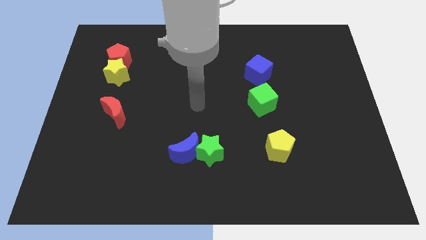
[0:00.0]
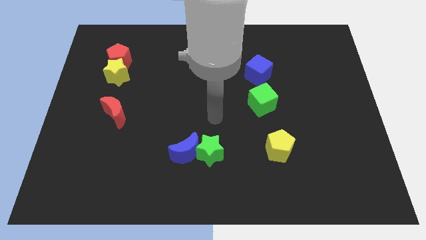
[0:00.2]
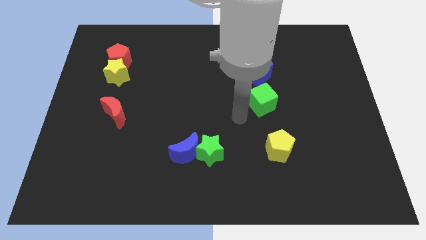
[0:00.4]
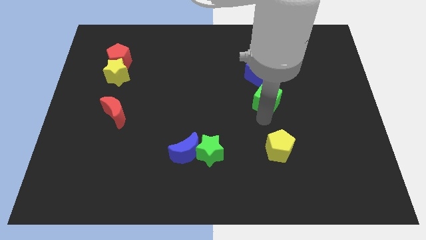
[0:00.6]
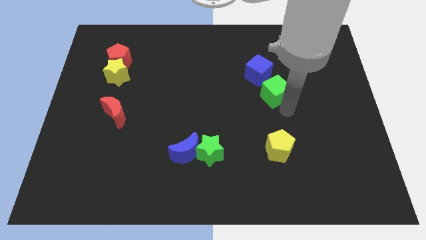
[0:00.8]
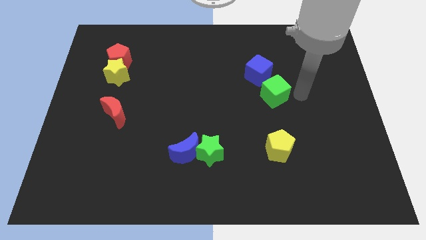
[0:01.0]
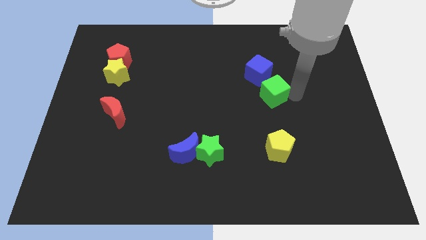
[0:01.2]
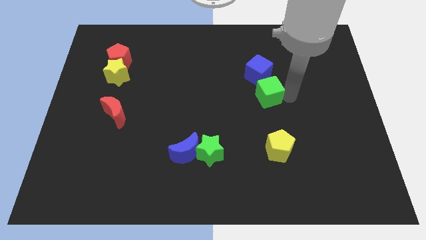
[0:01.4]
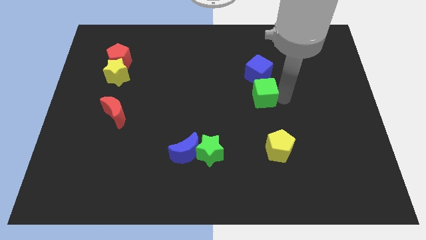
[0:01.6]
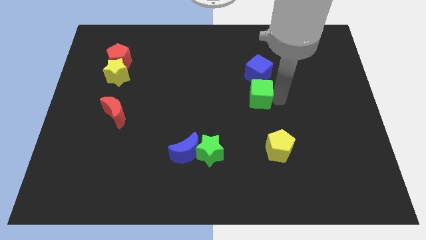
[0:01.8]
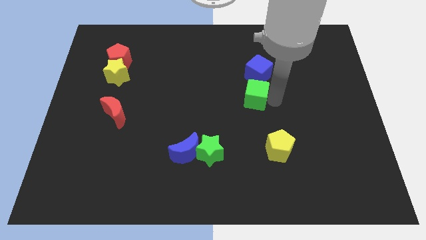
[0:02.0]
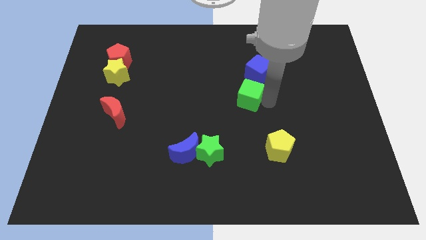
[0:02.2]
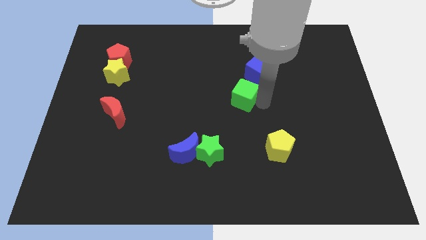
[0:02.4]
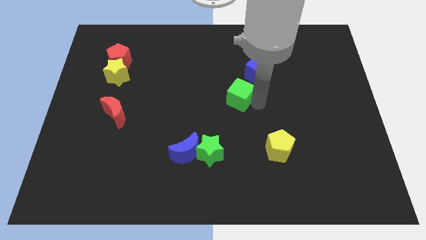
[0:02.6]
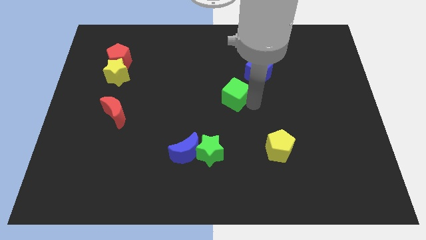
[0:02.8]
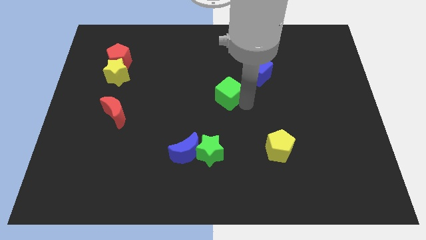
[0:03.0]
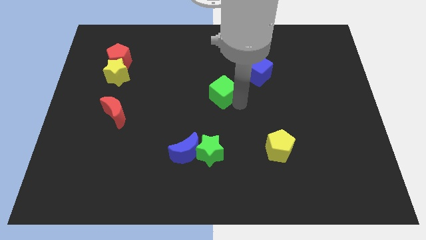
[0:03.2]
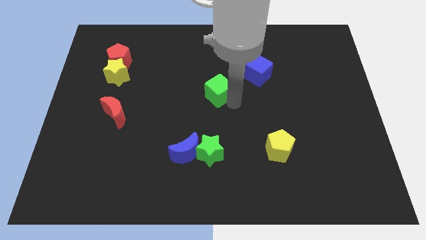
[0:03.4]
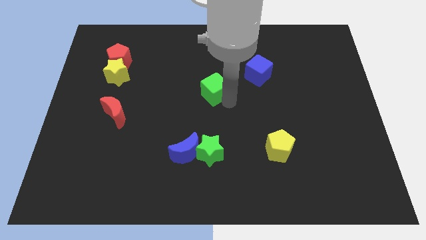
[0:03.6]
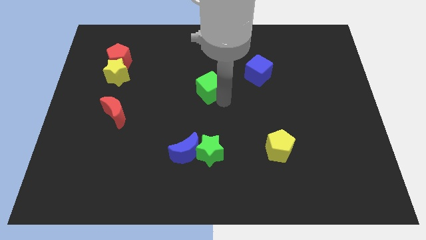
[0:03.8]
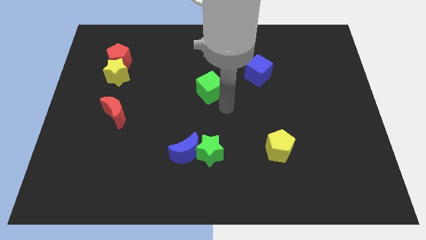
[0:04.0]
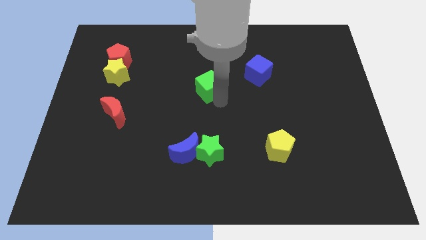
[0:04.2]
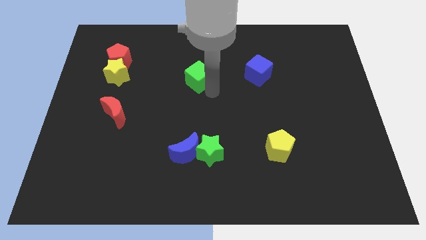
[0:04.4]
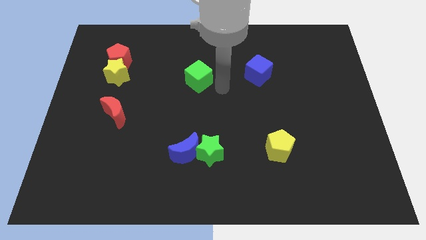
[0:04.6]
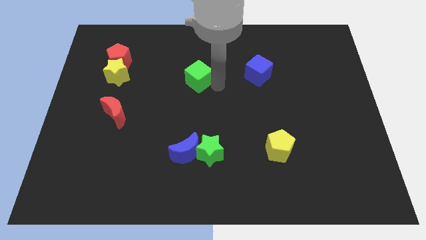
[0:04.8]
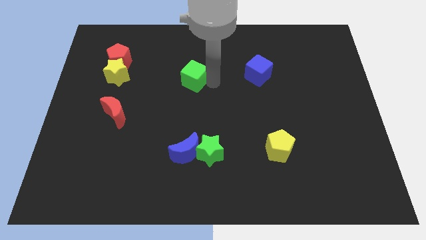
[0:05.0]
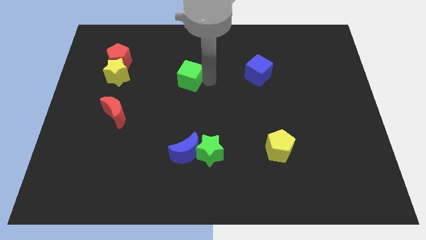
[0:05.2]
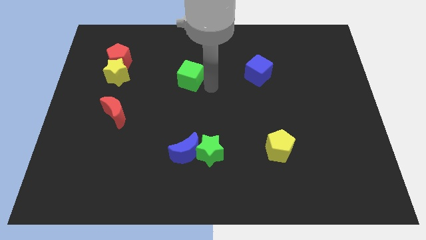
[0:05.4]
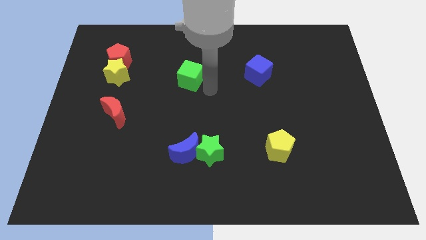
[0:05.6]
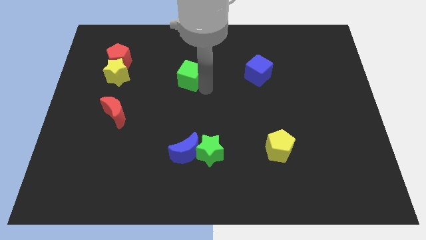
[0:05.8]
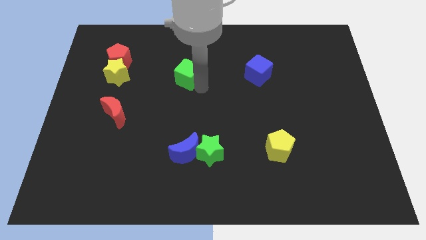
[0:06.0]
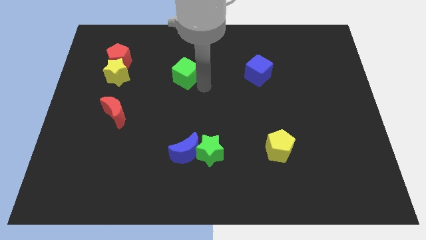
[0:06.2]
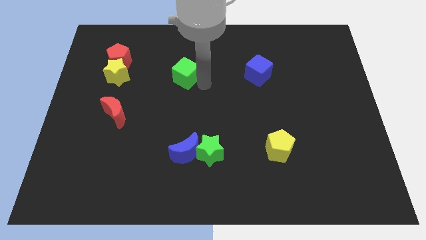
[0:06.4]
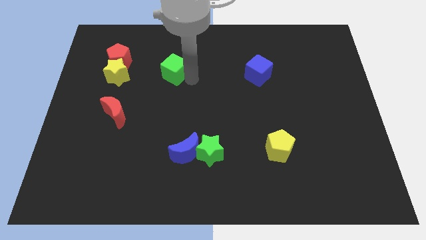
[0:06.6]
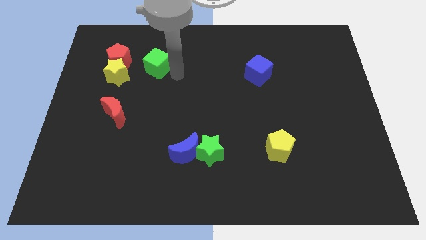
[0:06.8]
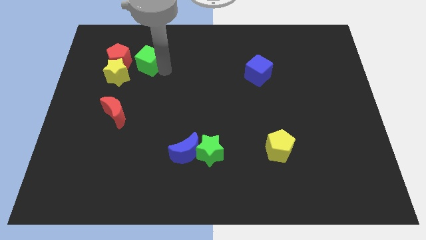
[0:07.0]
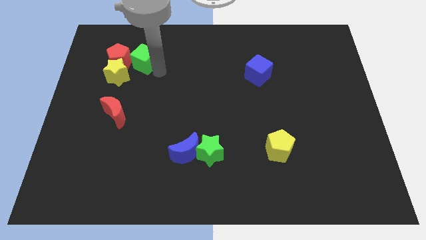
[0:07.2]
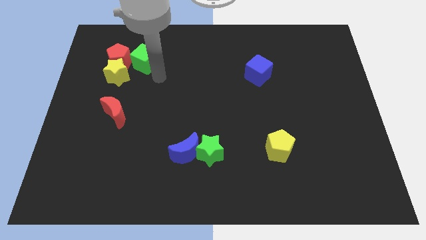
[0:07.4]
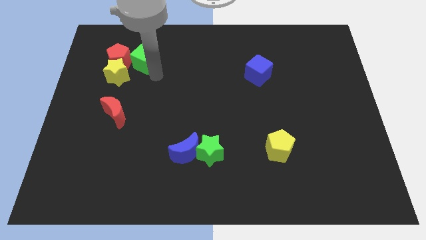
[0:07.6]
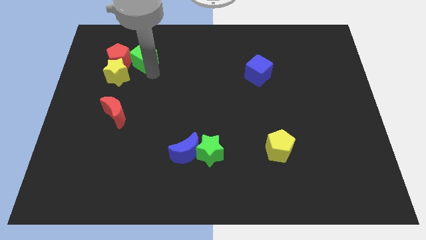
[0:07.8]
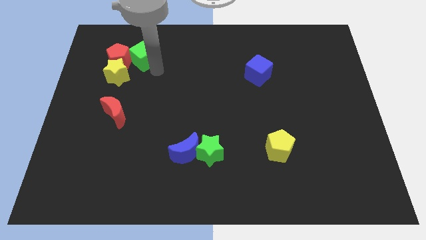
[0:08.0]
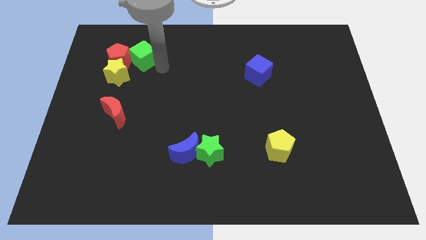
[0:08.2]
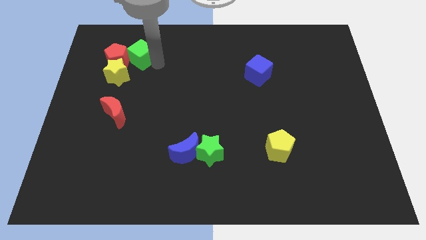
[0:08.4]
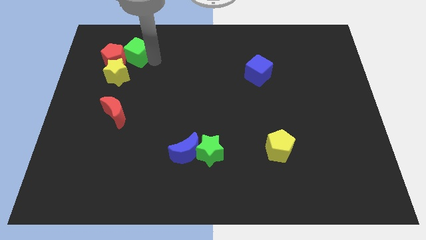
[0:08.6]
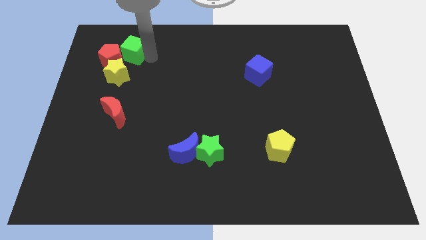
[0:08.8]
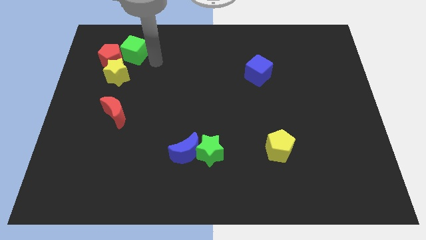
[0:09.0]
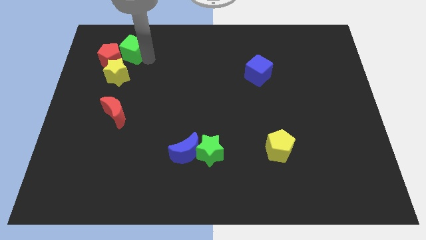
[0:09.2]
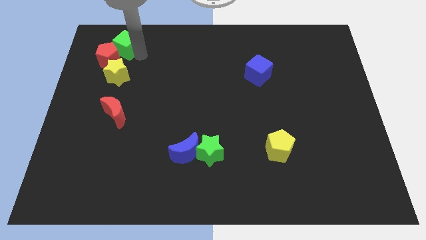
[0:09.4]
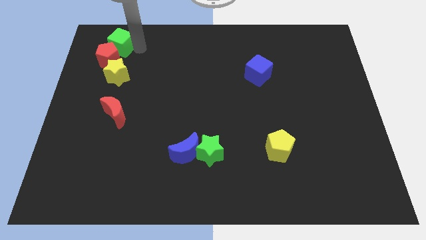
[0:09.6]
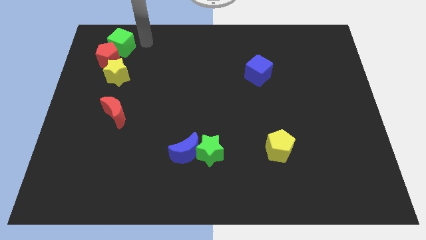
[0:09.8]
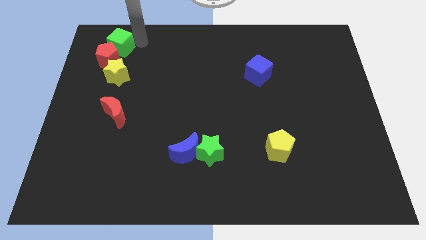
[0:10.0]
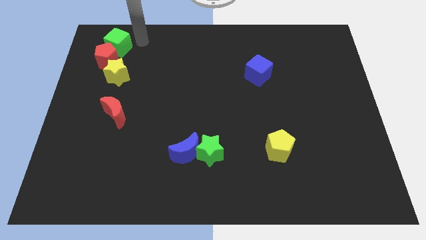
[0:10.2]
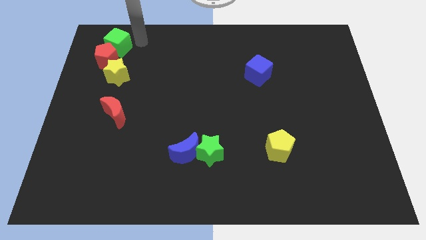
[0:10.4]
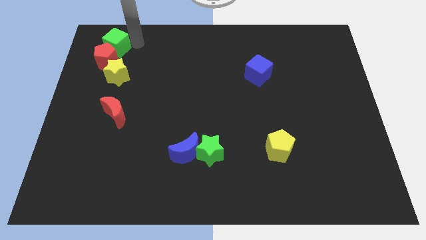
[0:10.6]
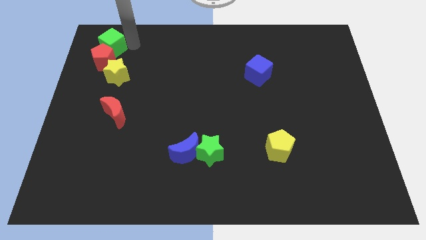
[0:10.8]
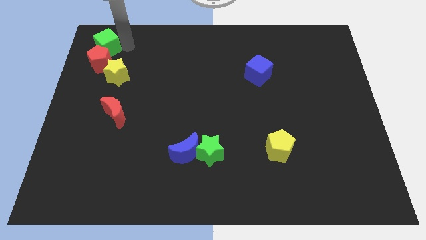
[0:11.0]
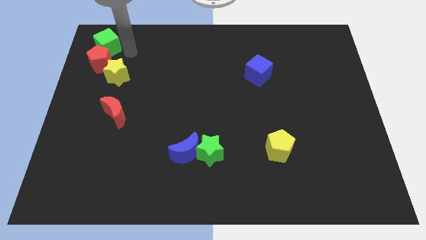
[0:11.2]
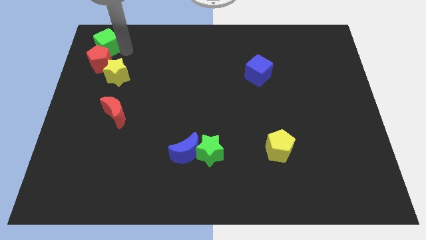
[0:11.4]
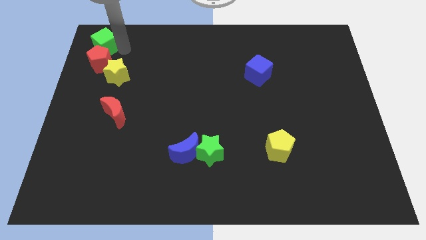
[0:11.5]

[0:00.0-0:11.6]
push the green cube to the top left corner

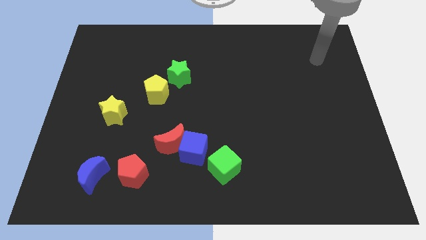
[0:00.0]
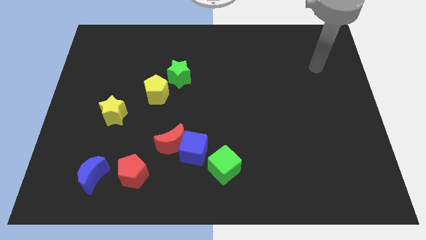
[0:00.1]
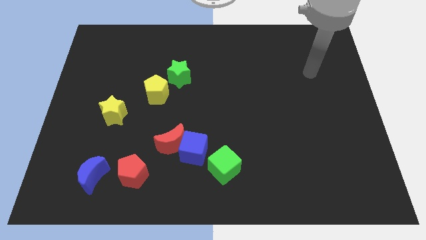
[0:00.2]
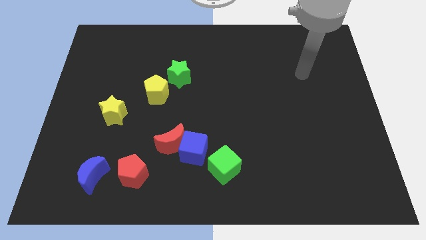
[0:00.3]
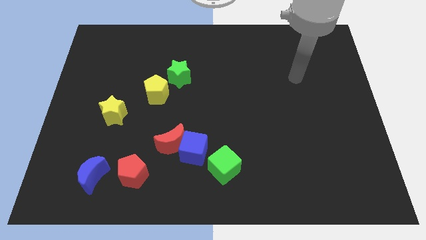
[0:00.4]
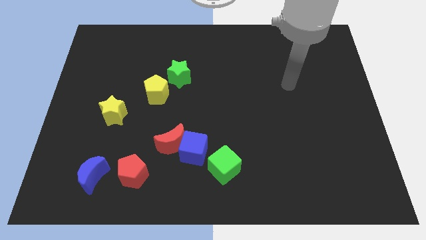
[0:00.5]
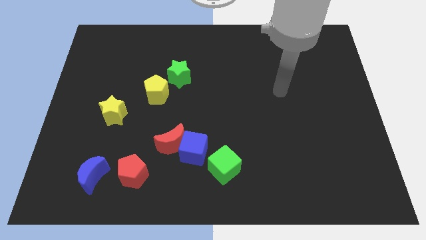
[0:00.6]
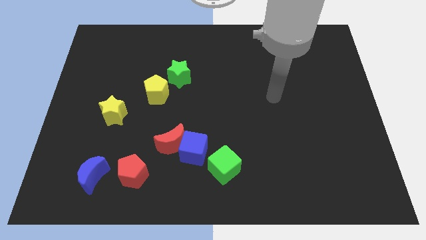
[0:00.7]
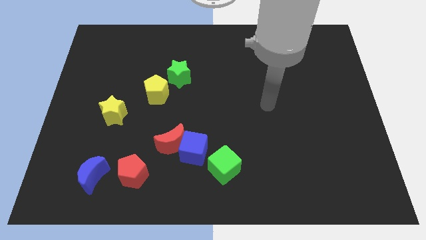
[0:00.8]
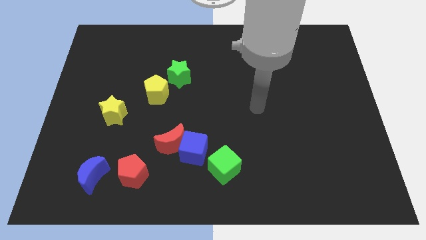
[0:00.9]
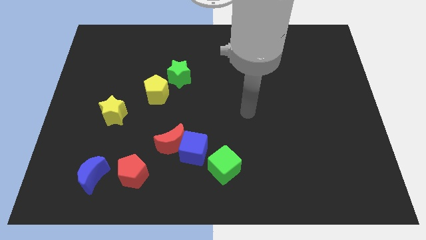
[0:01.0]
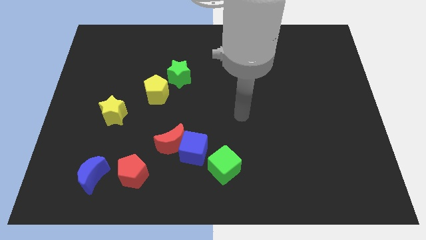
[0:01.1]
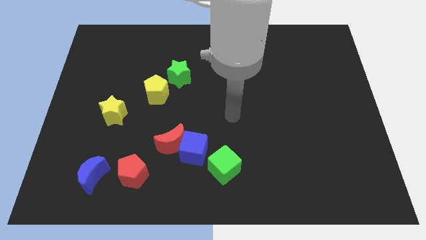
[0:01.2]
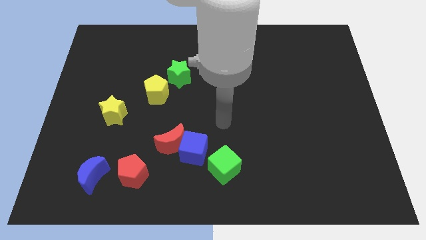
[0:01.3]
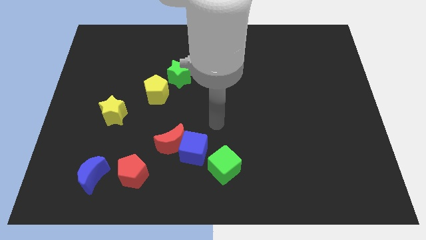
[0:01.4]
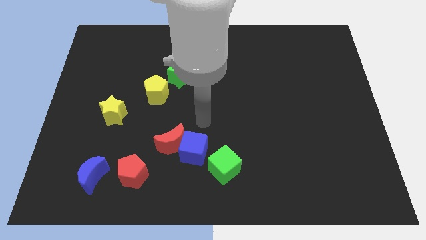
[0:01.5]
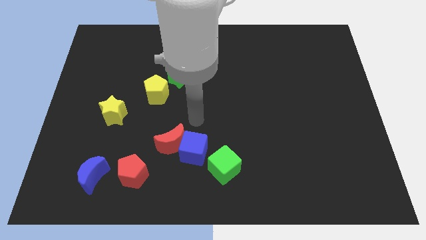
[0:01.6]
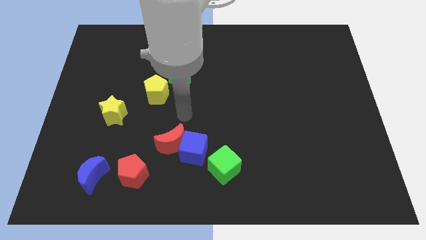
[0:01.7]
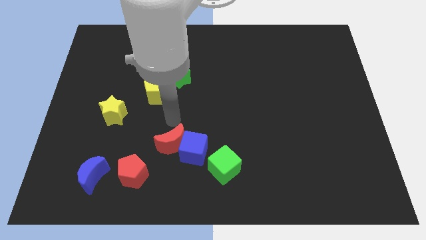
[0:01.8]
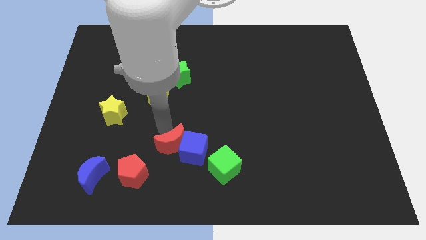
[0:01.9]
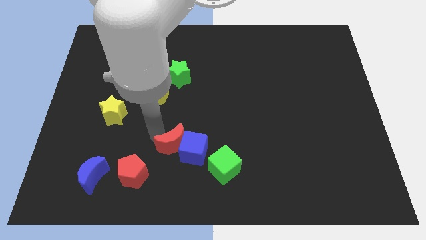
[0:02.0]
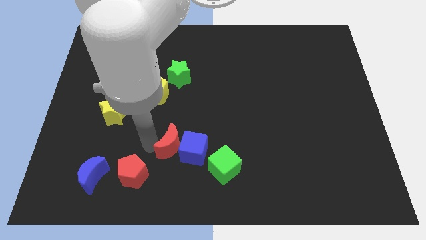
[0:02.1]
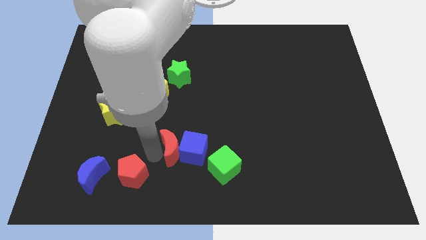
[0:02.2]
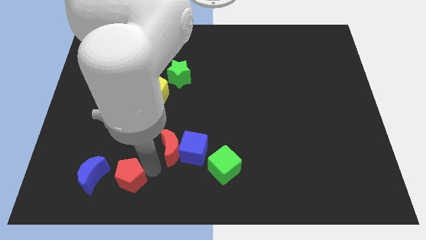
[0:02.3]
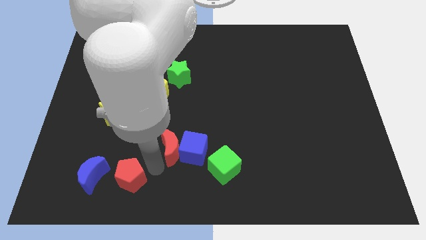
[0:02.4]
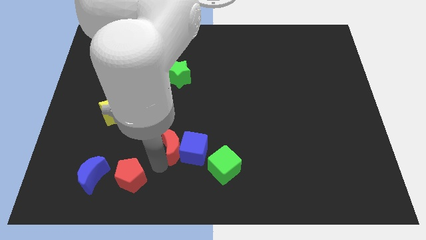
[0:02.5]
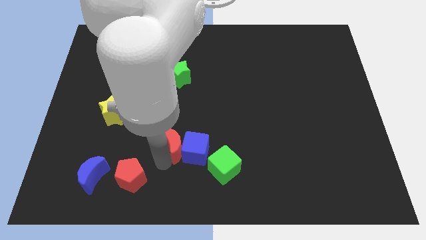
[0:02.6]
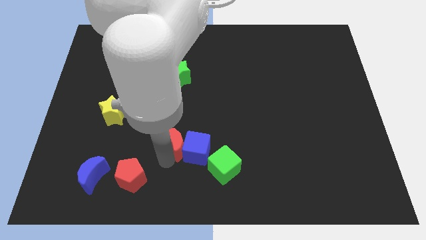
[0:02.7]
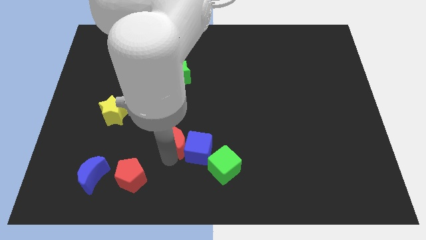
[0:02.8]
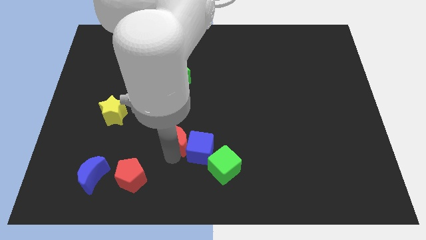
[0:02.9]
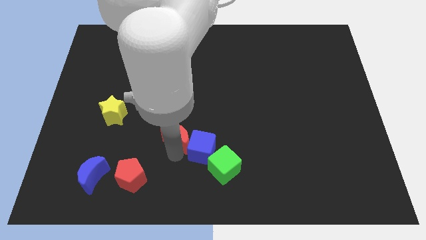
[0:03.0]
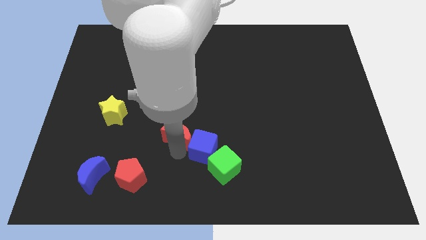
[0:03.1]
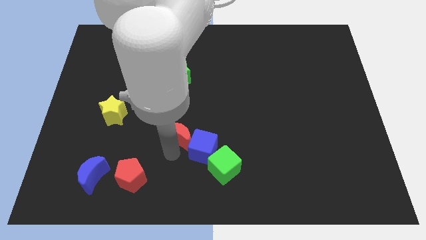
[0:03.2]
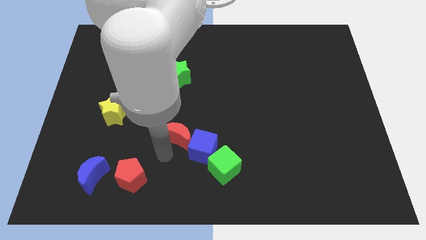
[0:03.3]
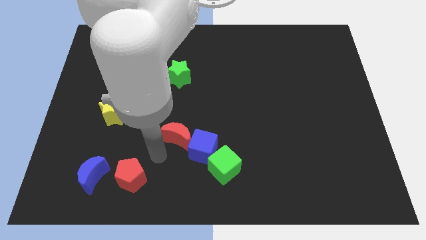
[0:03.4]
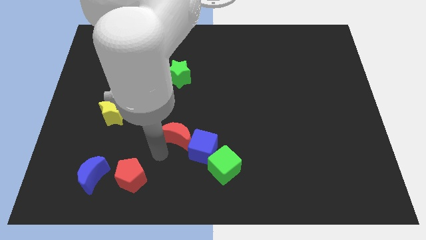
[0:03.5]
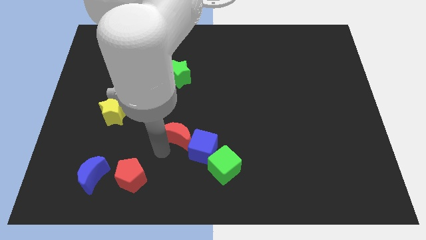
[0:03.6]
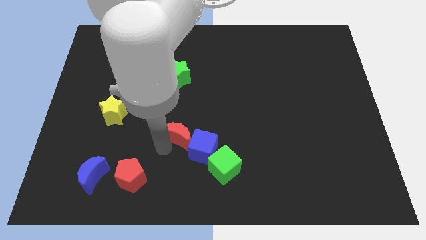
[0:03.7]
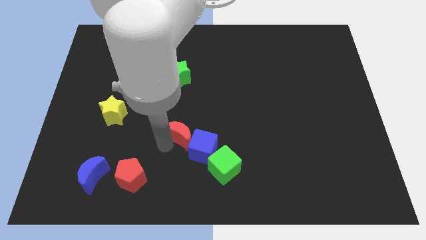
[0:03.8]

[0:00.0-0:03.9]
move the red moon to the center
